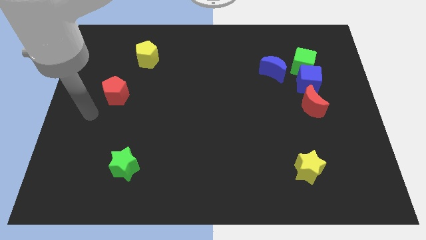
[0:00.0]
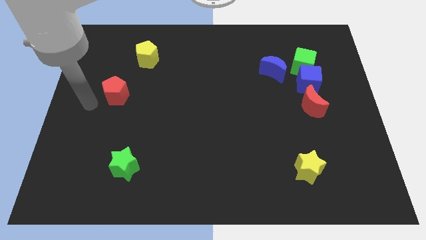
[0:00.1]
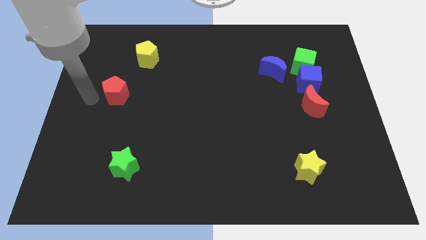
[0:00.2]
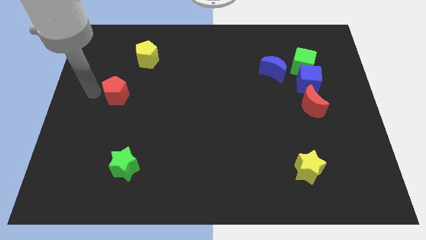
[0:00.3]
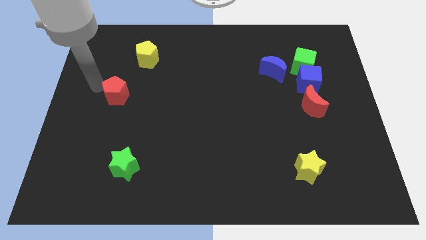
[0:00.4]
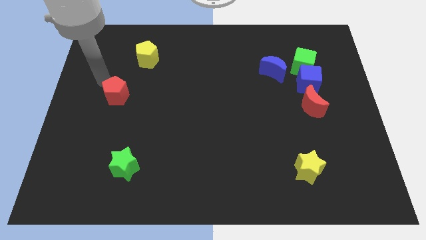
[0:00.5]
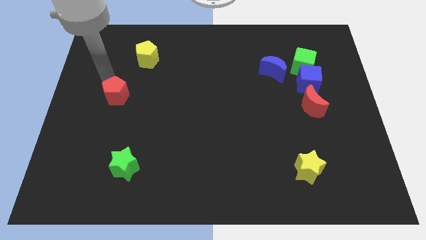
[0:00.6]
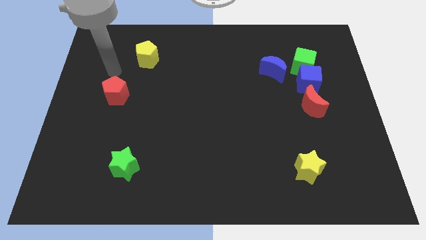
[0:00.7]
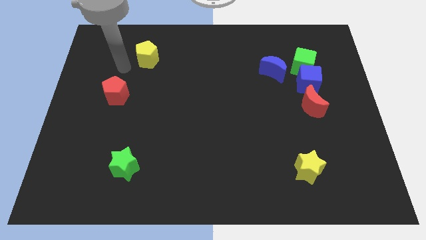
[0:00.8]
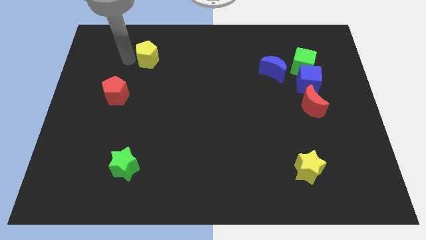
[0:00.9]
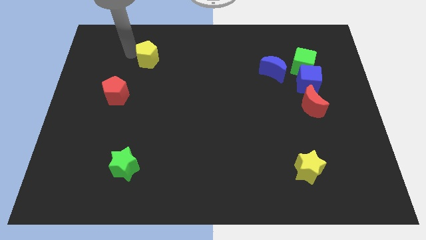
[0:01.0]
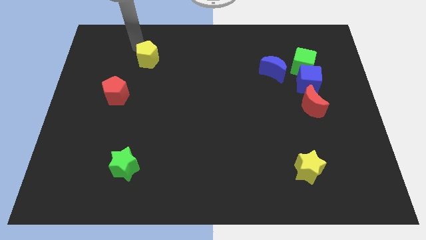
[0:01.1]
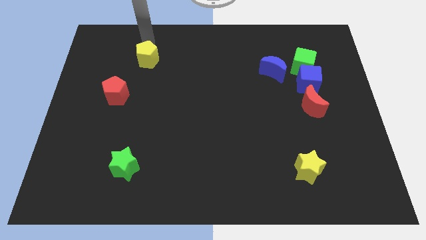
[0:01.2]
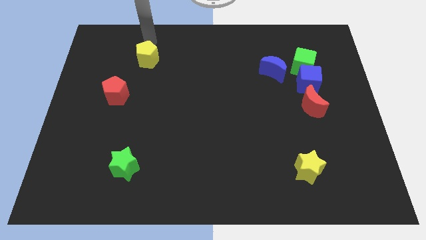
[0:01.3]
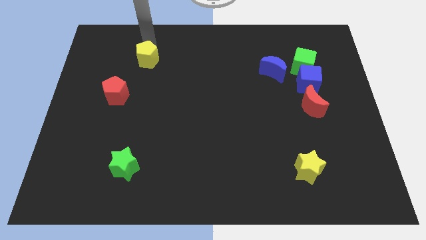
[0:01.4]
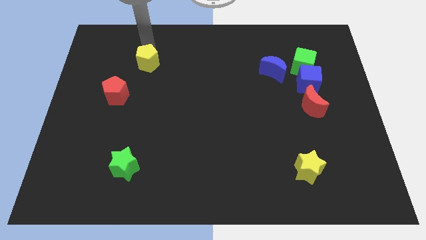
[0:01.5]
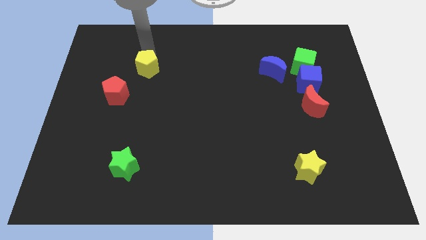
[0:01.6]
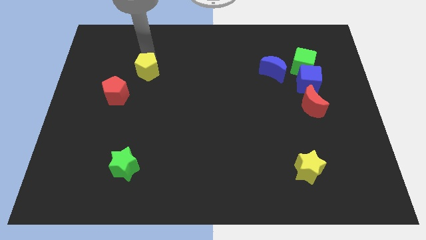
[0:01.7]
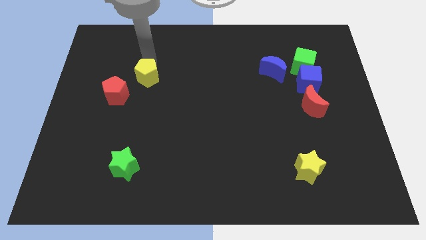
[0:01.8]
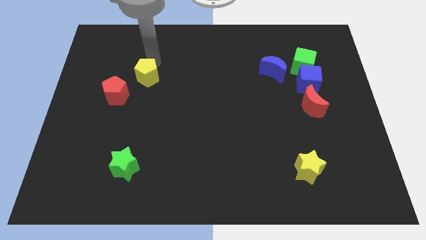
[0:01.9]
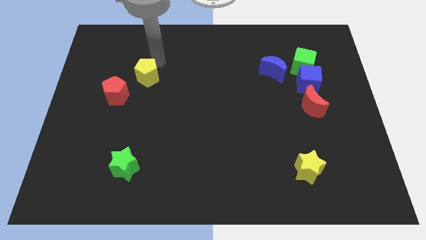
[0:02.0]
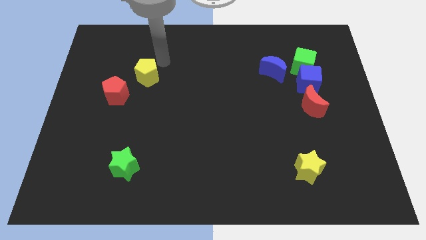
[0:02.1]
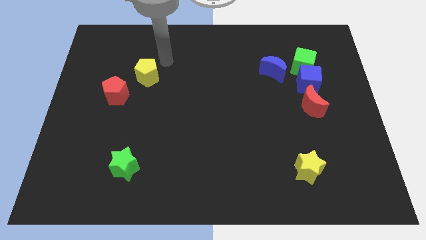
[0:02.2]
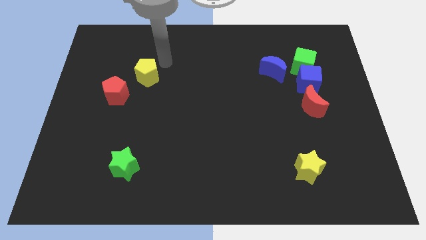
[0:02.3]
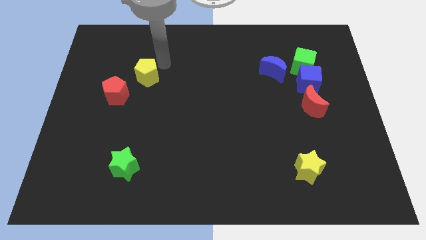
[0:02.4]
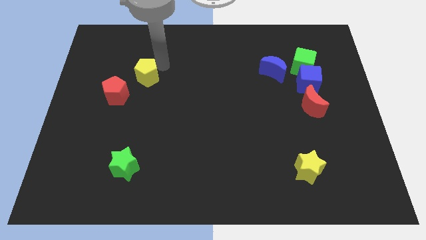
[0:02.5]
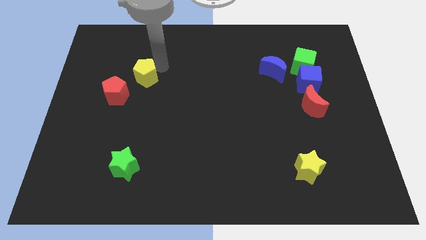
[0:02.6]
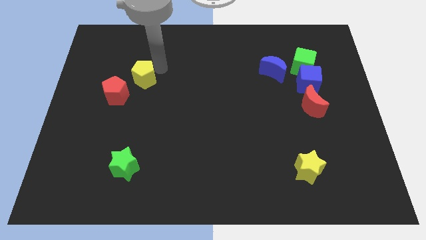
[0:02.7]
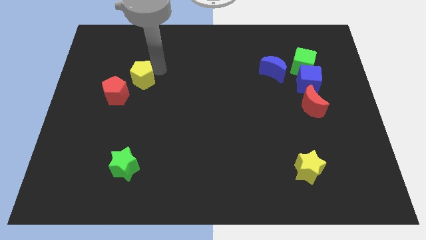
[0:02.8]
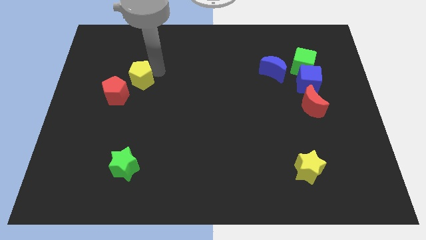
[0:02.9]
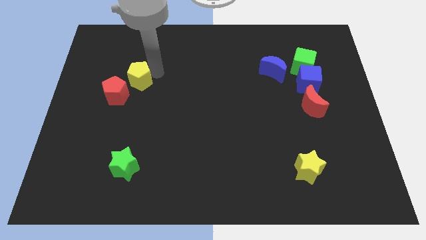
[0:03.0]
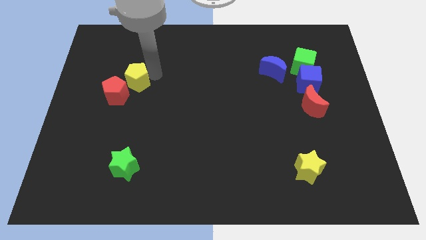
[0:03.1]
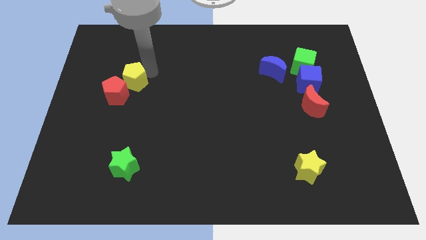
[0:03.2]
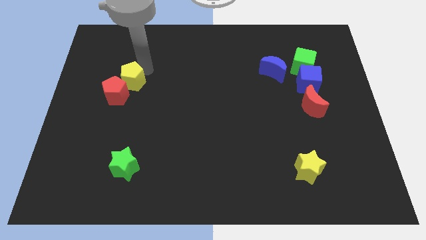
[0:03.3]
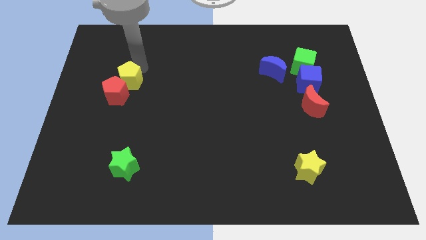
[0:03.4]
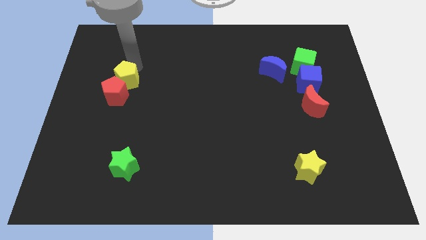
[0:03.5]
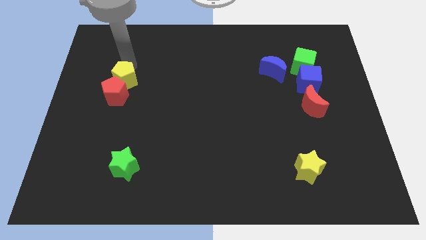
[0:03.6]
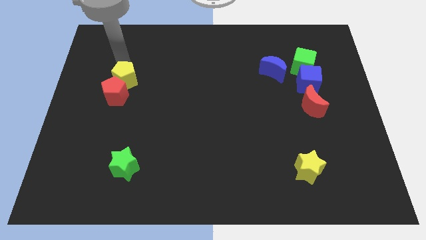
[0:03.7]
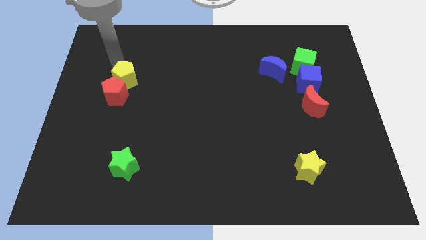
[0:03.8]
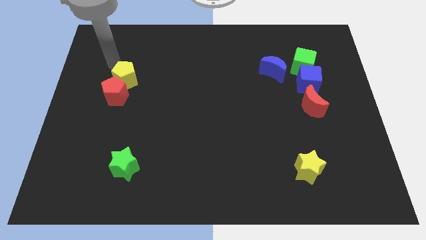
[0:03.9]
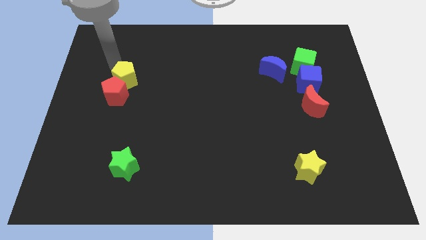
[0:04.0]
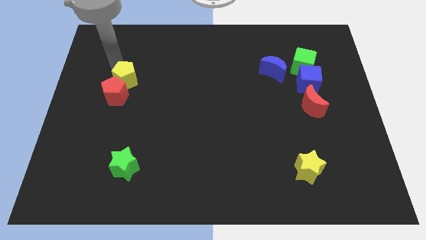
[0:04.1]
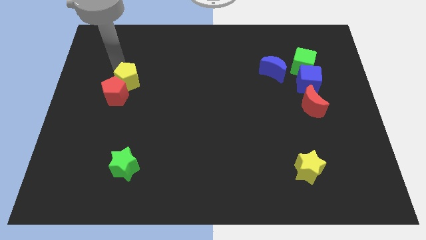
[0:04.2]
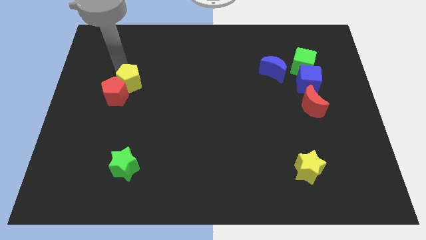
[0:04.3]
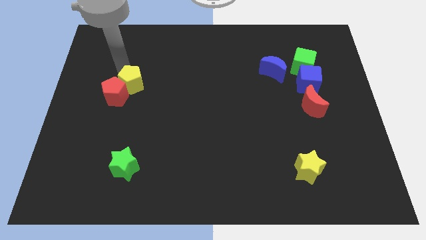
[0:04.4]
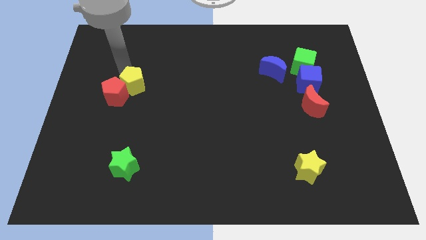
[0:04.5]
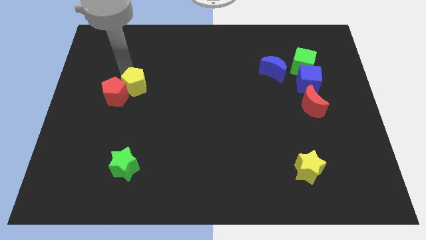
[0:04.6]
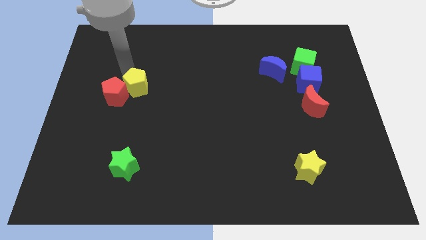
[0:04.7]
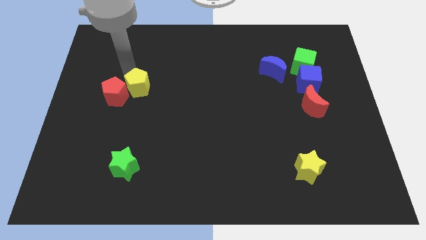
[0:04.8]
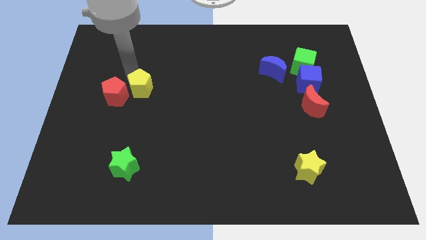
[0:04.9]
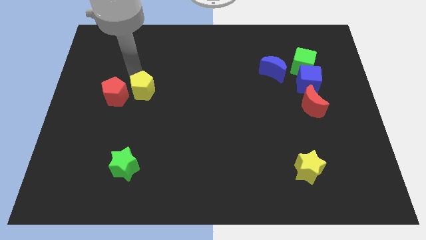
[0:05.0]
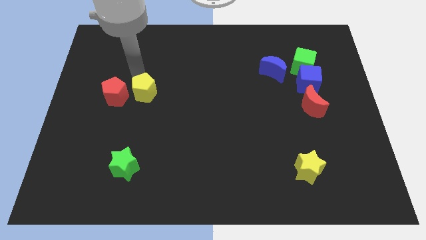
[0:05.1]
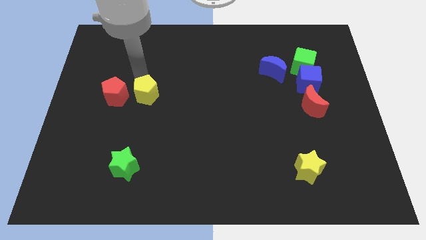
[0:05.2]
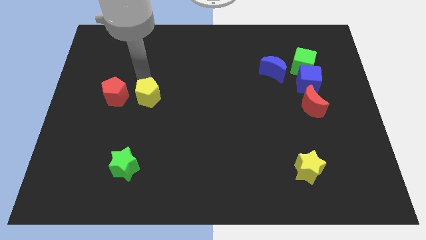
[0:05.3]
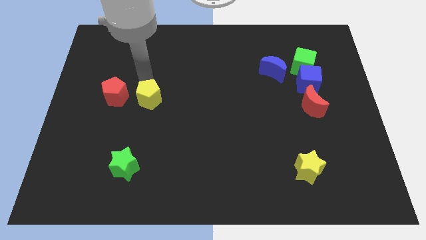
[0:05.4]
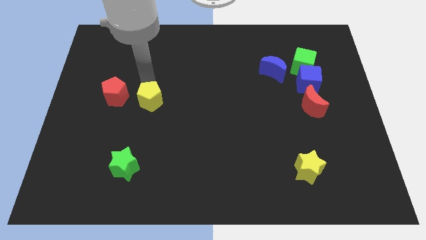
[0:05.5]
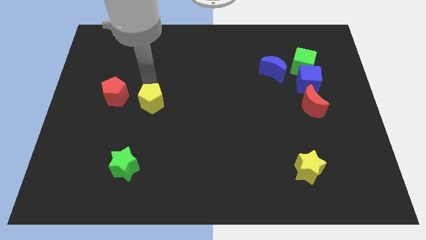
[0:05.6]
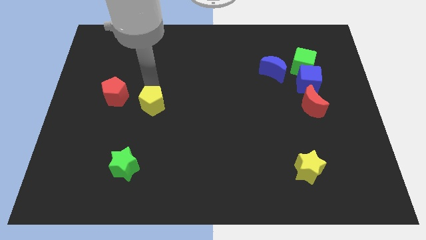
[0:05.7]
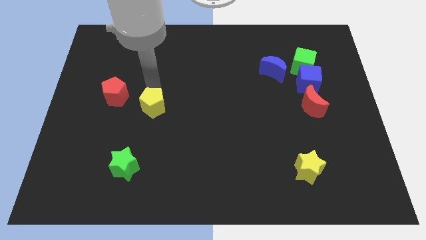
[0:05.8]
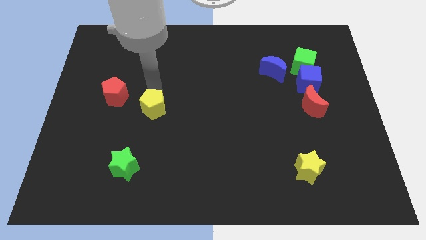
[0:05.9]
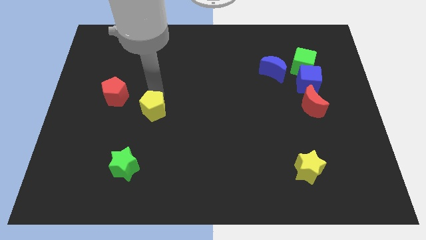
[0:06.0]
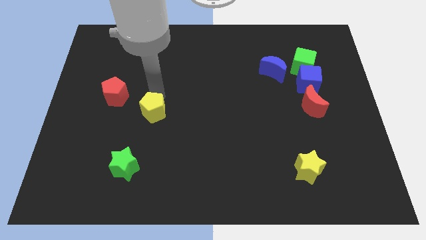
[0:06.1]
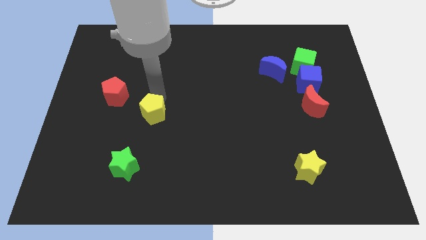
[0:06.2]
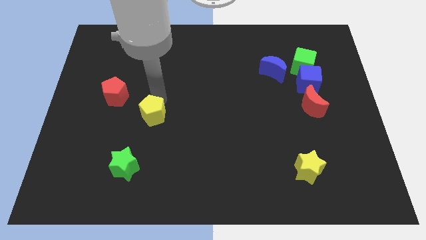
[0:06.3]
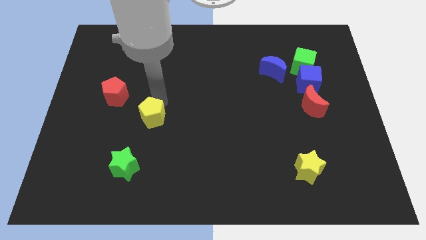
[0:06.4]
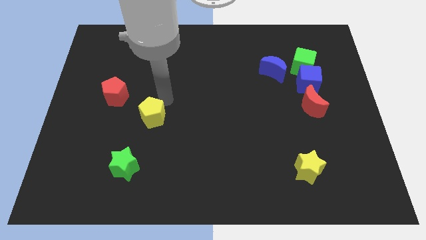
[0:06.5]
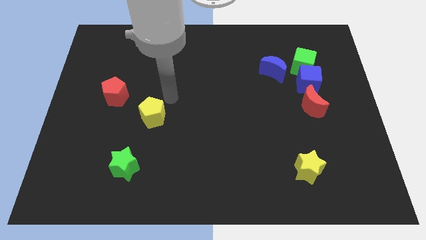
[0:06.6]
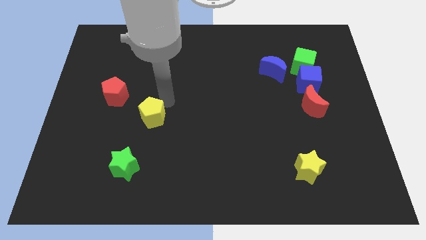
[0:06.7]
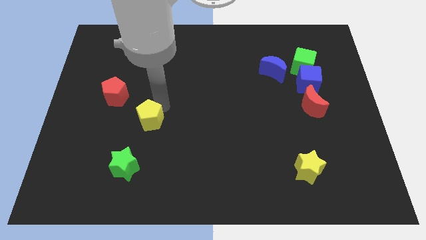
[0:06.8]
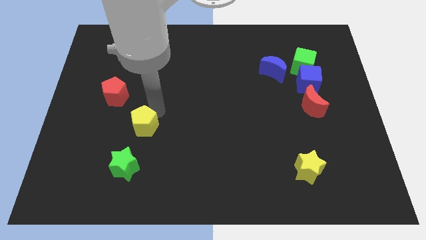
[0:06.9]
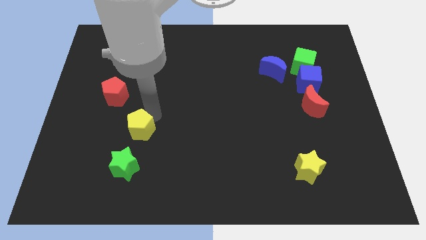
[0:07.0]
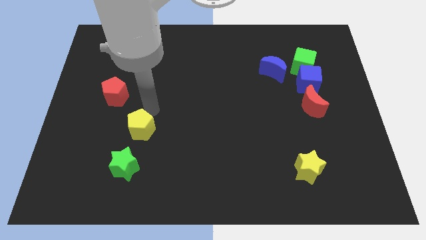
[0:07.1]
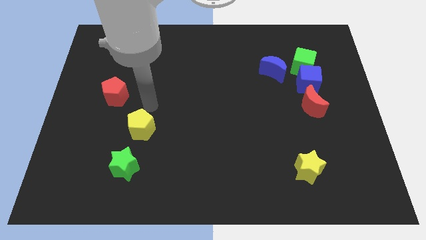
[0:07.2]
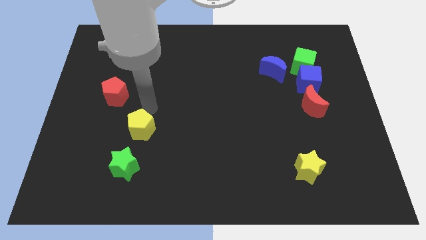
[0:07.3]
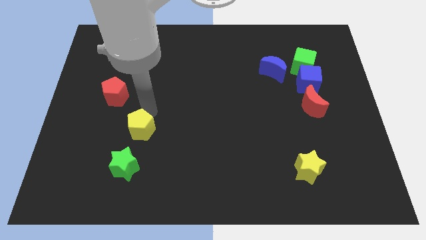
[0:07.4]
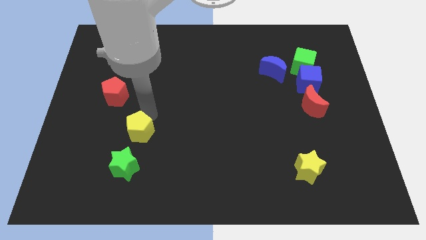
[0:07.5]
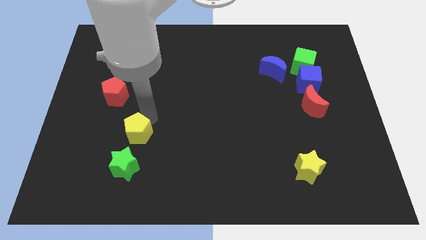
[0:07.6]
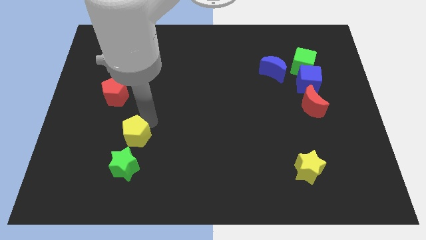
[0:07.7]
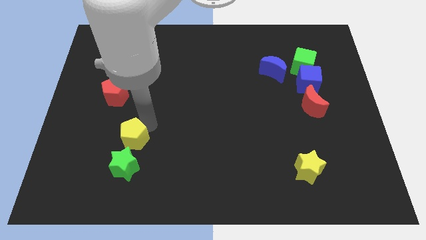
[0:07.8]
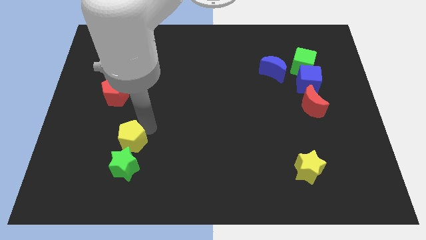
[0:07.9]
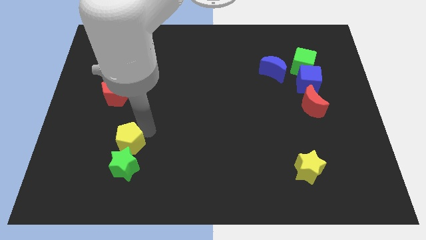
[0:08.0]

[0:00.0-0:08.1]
slide the yellow pentagon close to the green star
